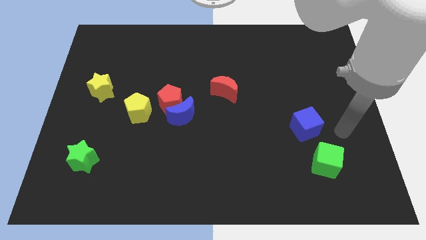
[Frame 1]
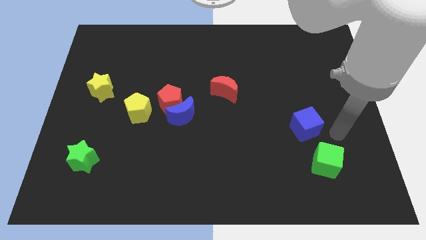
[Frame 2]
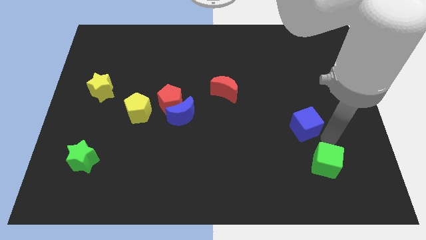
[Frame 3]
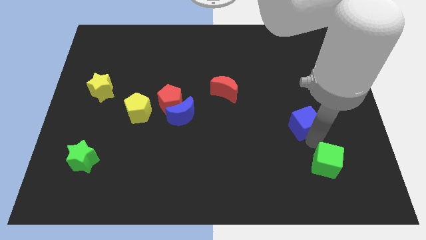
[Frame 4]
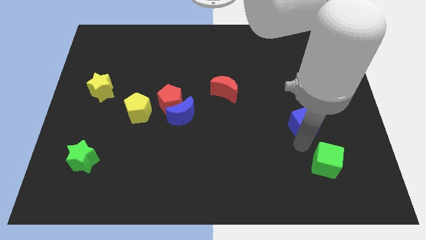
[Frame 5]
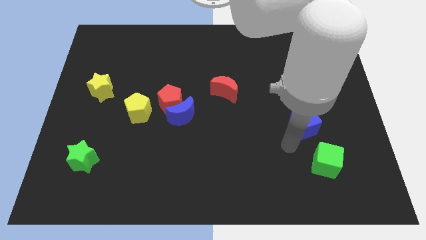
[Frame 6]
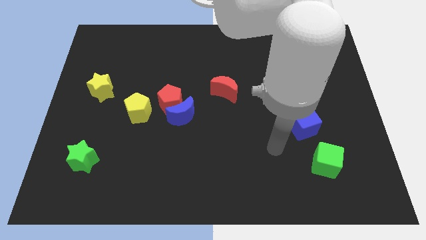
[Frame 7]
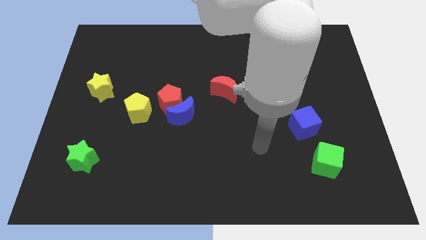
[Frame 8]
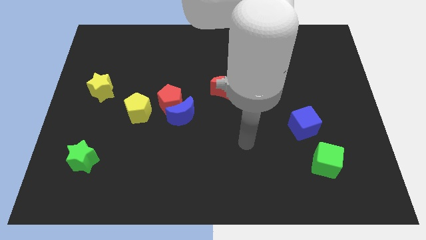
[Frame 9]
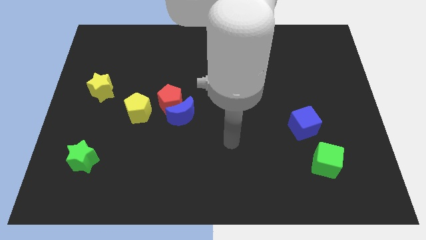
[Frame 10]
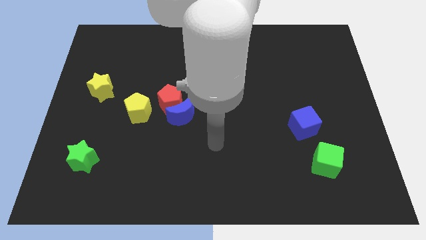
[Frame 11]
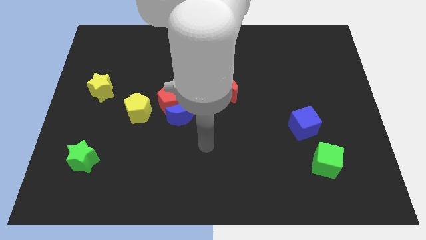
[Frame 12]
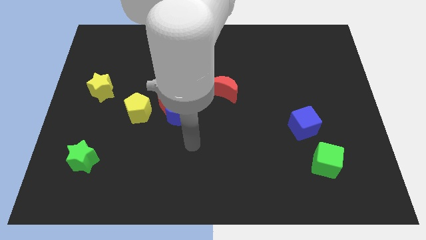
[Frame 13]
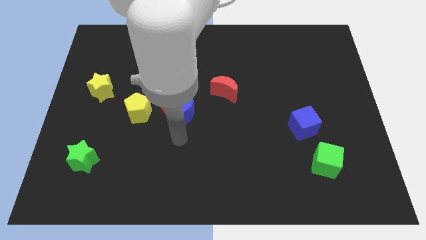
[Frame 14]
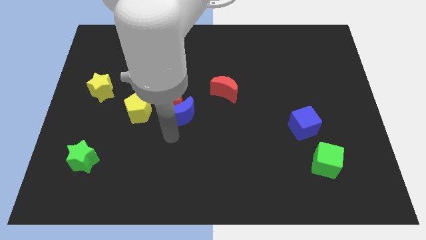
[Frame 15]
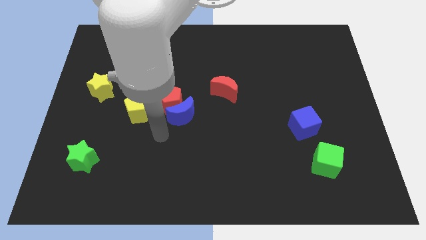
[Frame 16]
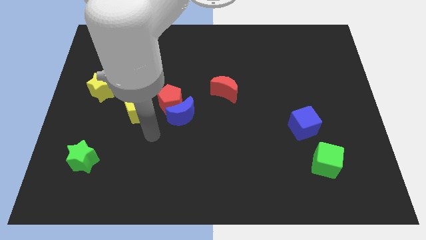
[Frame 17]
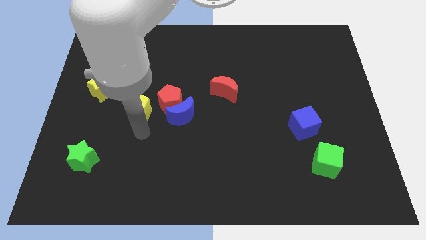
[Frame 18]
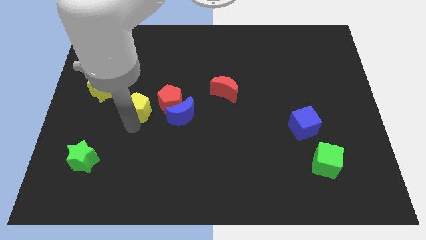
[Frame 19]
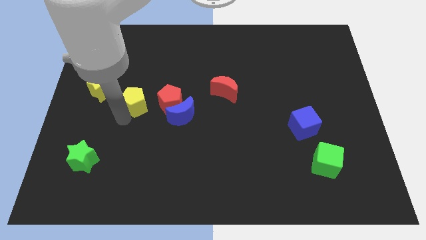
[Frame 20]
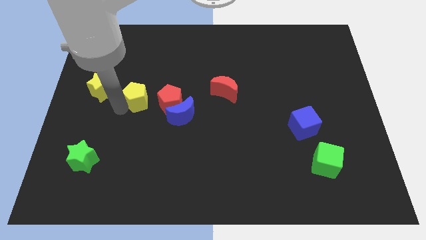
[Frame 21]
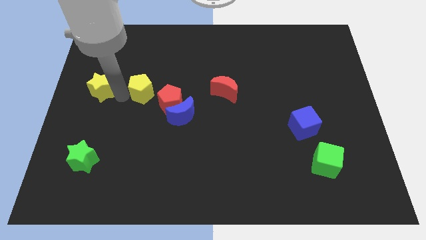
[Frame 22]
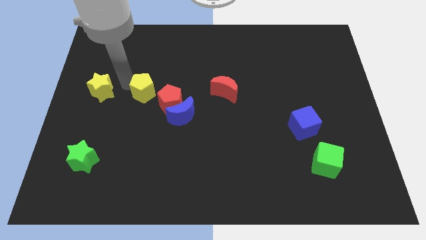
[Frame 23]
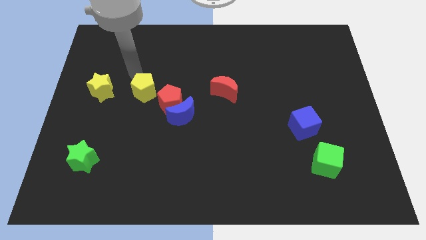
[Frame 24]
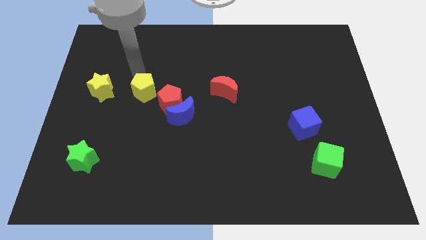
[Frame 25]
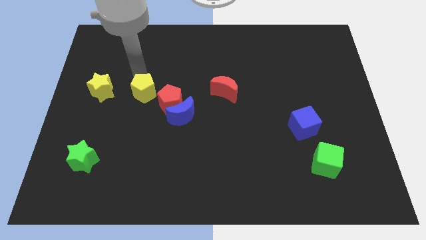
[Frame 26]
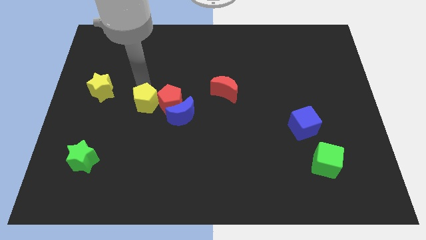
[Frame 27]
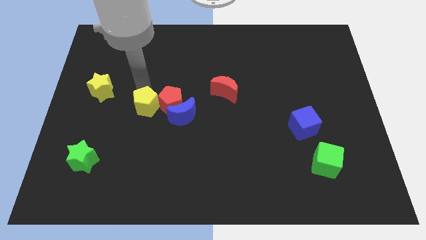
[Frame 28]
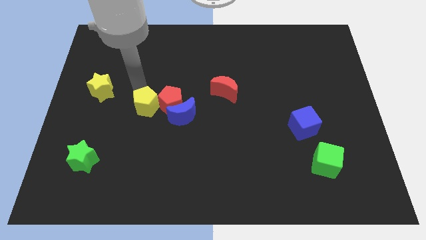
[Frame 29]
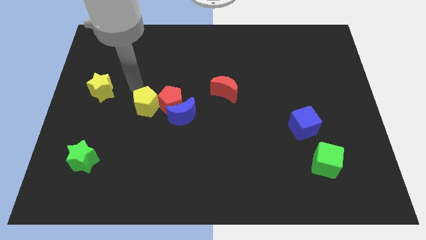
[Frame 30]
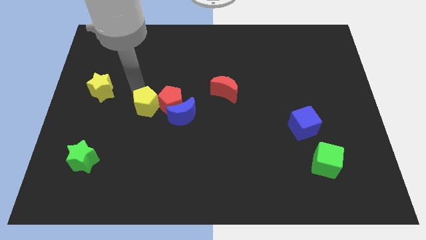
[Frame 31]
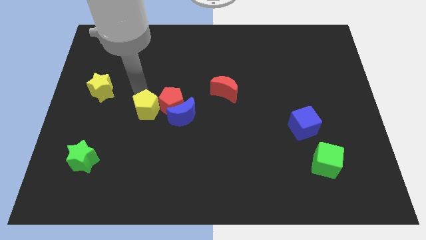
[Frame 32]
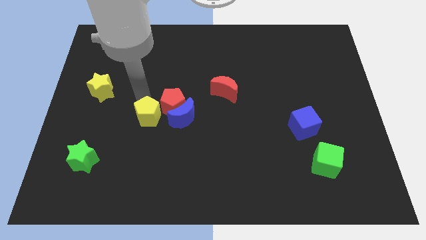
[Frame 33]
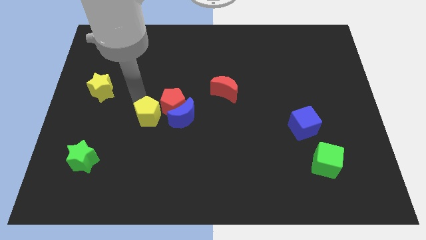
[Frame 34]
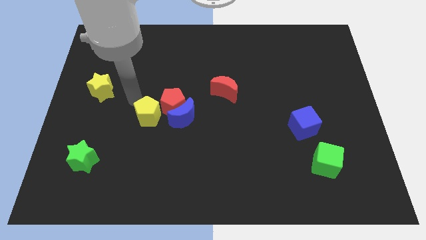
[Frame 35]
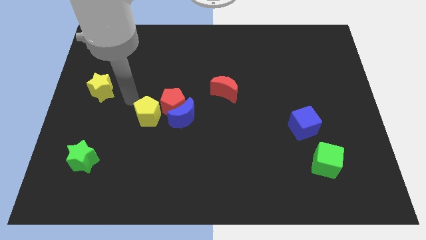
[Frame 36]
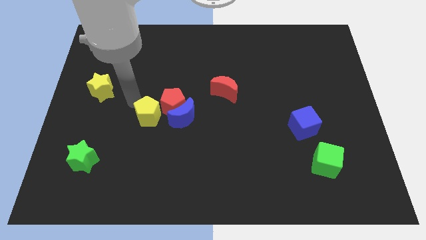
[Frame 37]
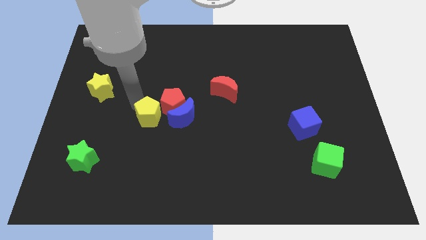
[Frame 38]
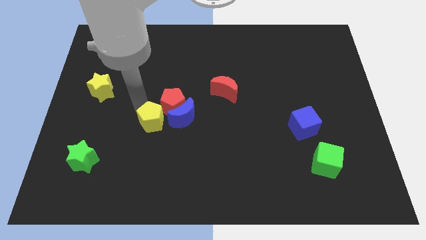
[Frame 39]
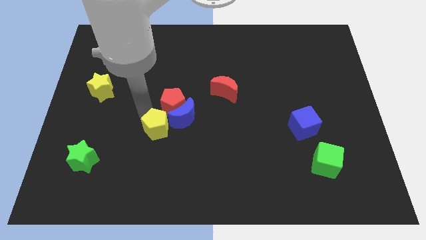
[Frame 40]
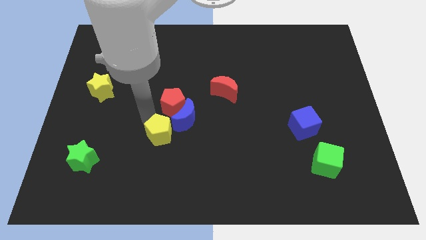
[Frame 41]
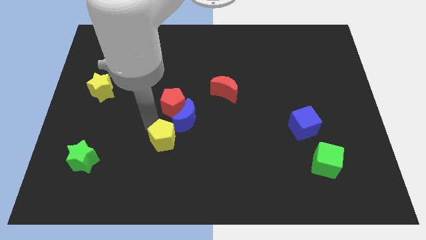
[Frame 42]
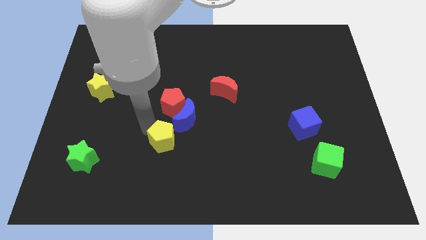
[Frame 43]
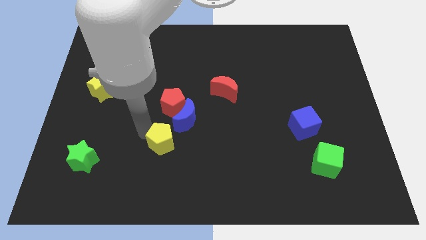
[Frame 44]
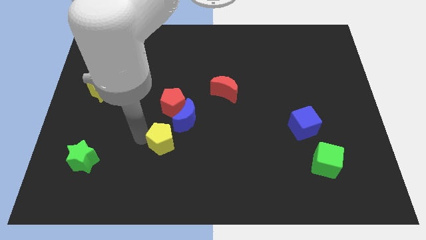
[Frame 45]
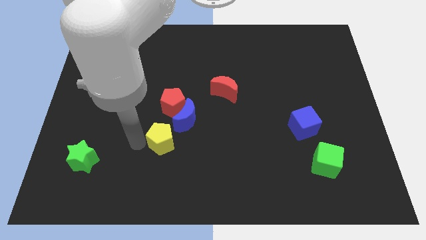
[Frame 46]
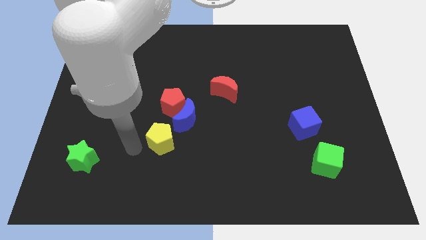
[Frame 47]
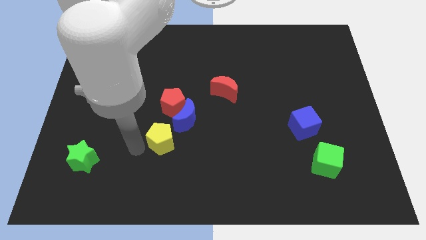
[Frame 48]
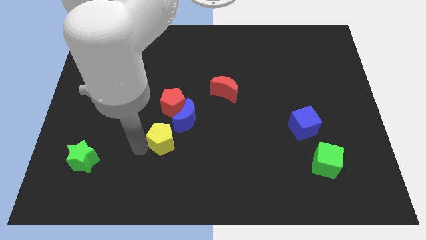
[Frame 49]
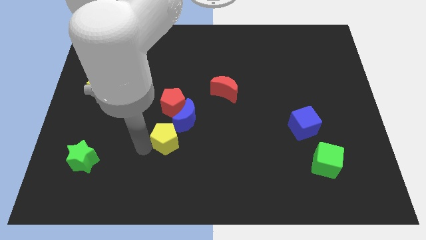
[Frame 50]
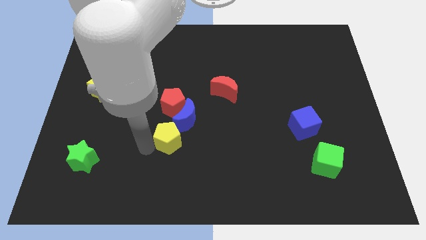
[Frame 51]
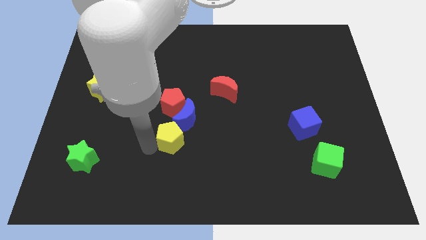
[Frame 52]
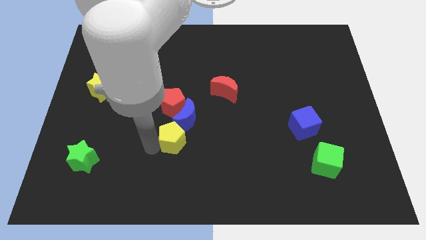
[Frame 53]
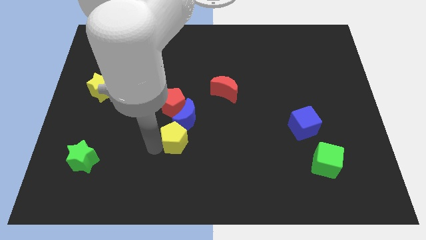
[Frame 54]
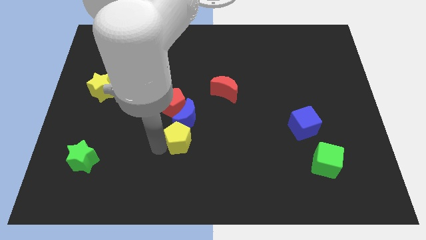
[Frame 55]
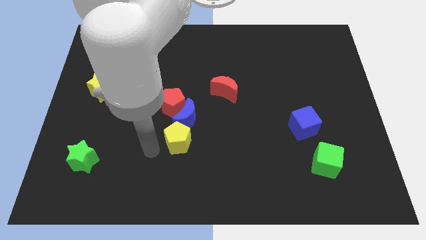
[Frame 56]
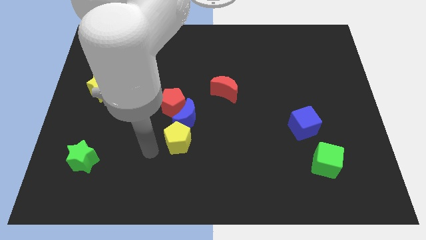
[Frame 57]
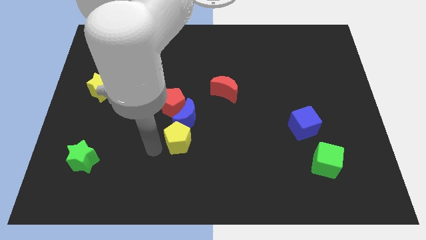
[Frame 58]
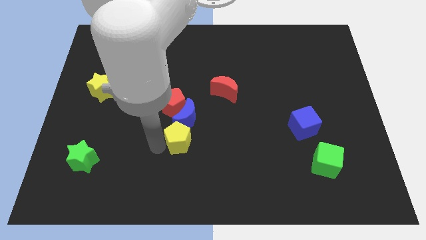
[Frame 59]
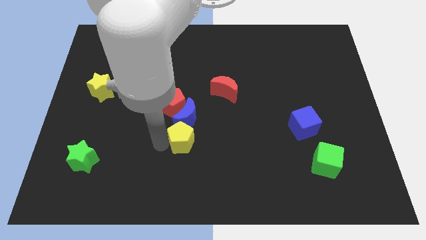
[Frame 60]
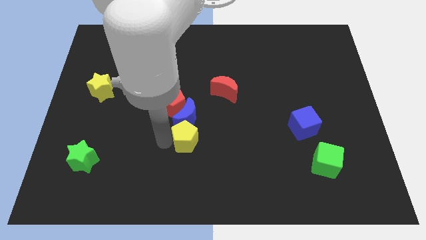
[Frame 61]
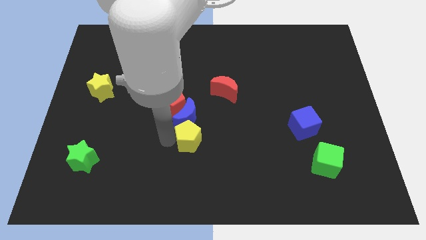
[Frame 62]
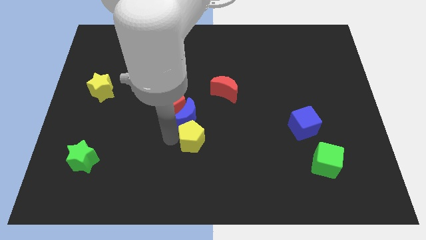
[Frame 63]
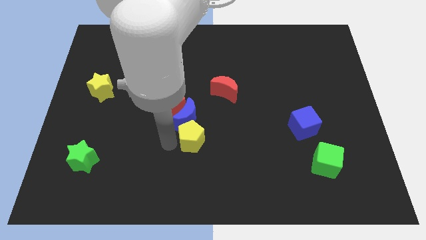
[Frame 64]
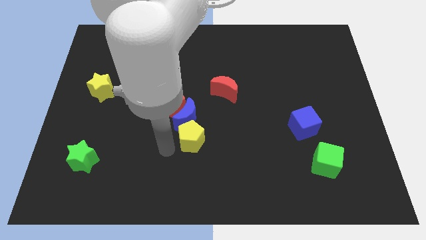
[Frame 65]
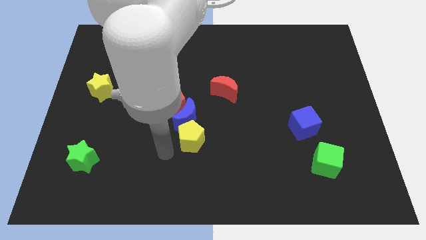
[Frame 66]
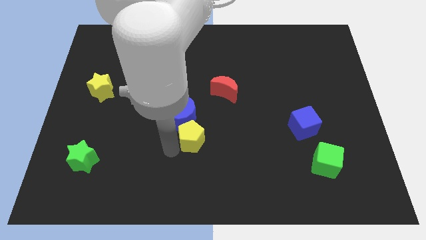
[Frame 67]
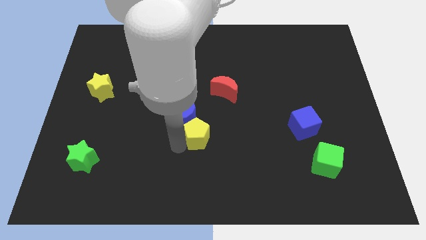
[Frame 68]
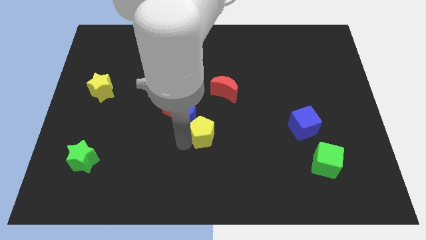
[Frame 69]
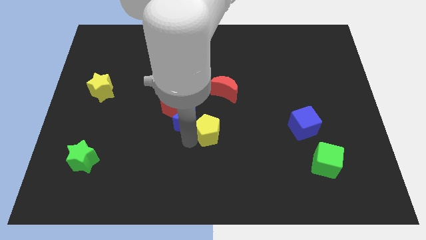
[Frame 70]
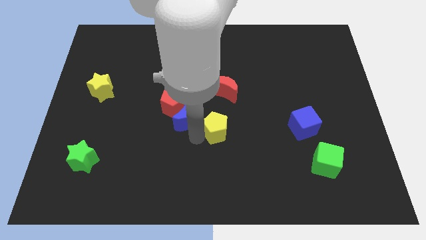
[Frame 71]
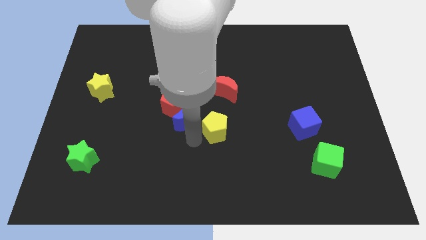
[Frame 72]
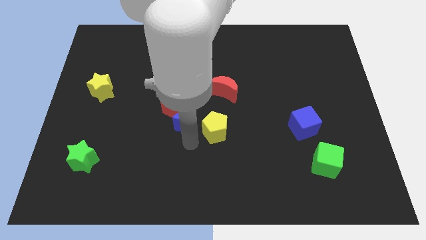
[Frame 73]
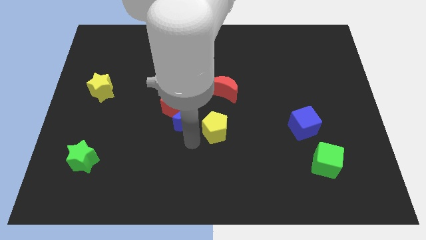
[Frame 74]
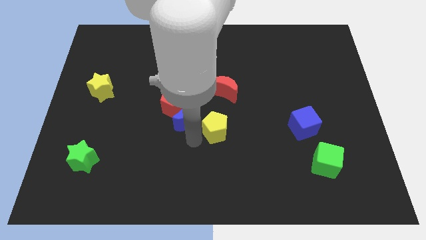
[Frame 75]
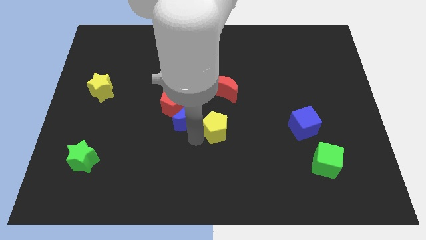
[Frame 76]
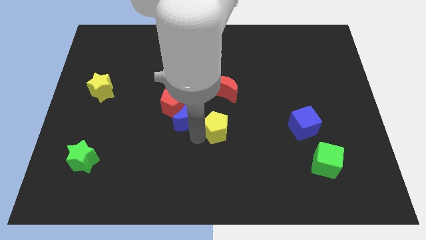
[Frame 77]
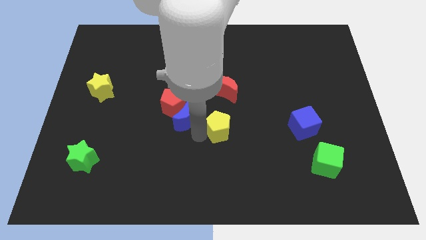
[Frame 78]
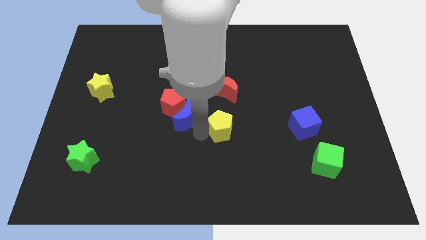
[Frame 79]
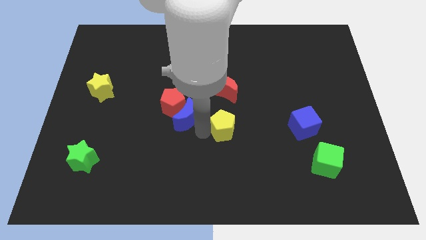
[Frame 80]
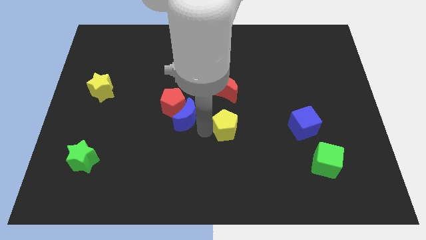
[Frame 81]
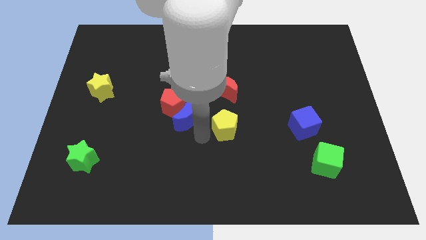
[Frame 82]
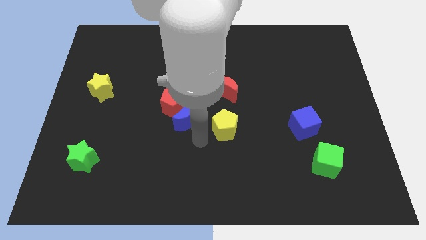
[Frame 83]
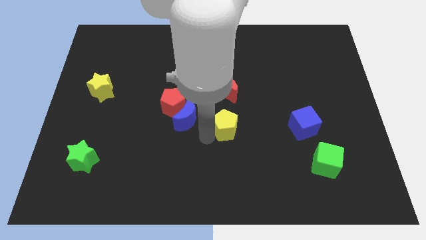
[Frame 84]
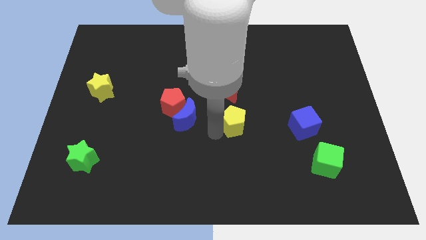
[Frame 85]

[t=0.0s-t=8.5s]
push the yellow pentagon right
